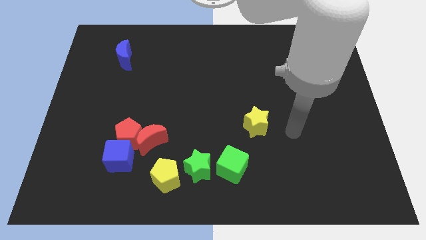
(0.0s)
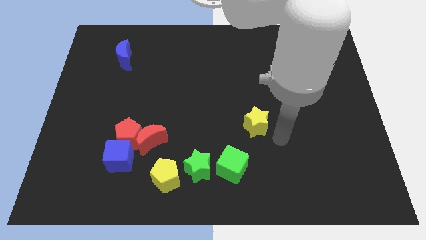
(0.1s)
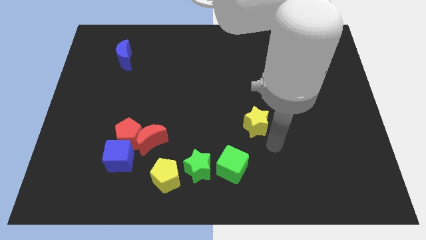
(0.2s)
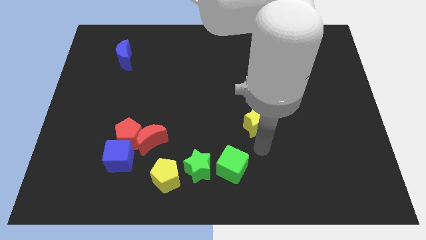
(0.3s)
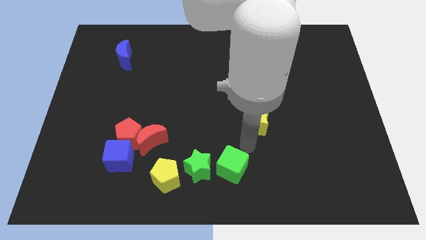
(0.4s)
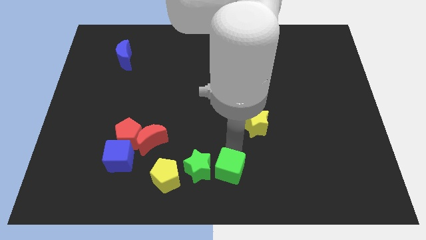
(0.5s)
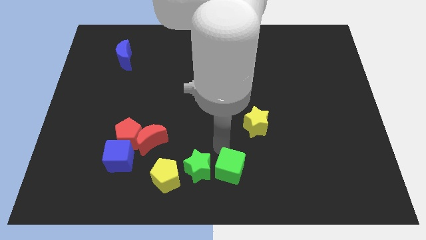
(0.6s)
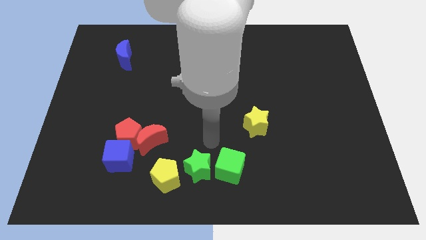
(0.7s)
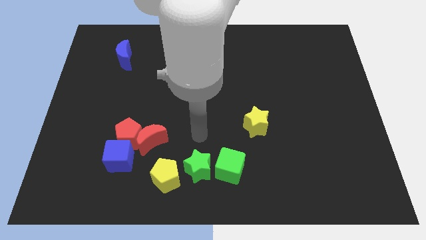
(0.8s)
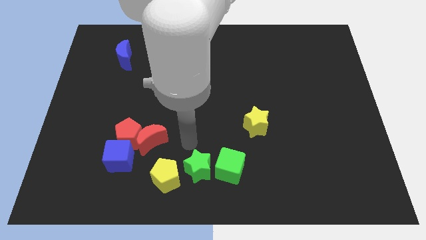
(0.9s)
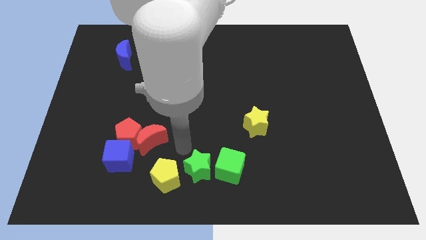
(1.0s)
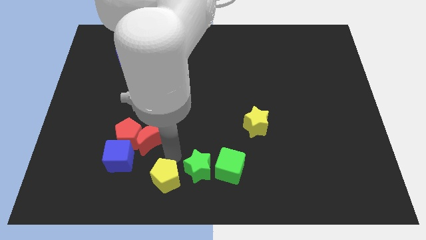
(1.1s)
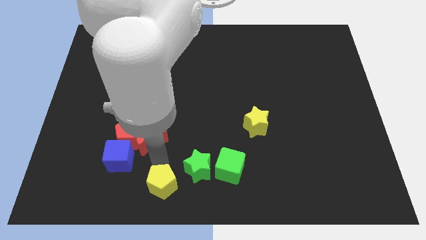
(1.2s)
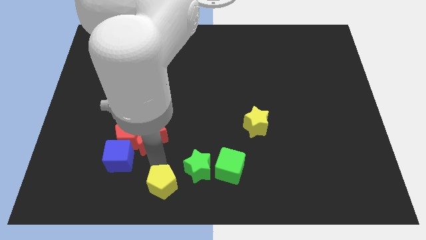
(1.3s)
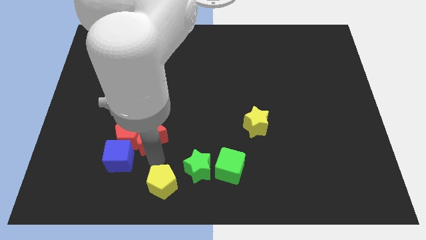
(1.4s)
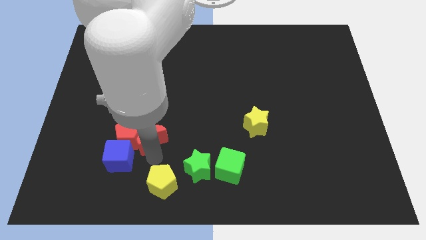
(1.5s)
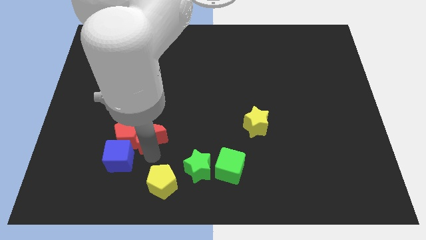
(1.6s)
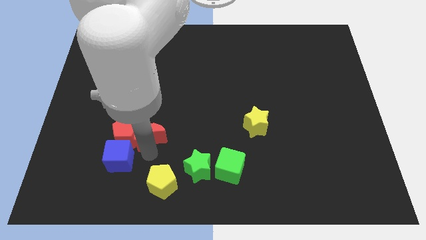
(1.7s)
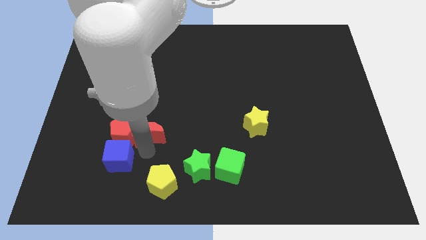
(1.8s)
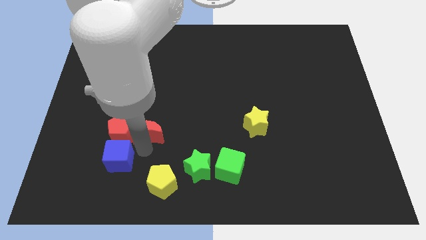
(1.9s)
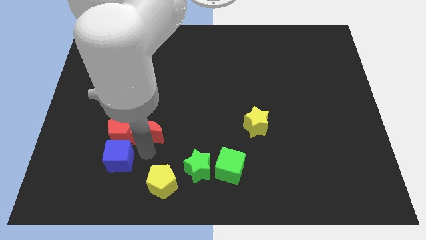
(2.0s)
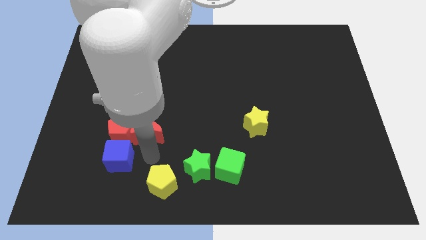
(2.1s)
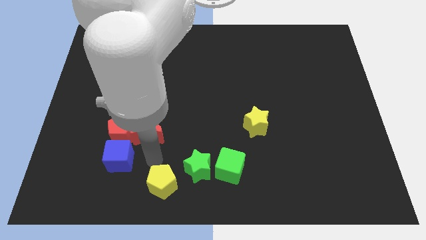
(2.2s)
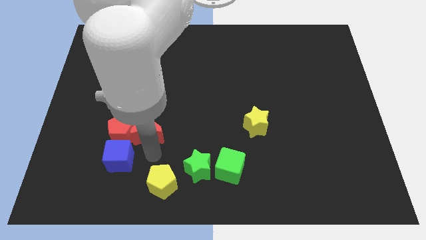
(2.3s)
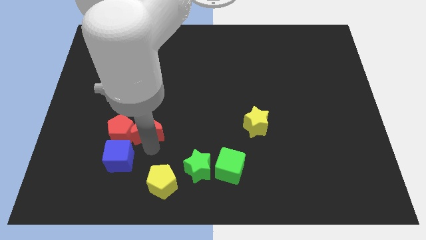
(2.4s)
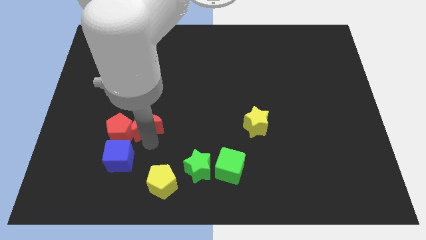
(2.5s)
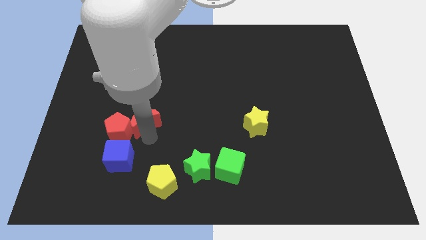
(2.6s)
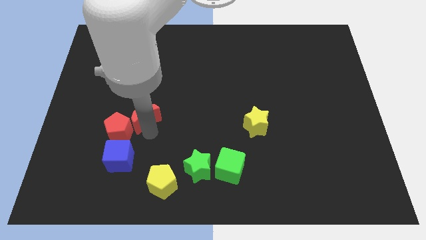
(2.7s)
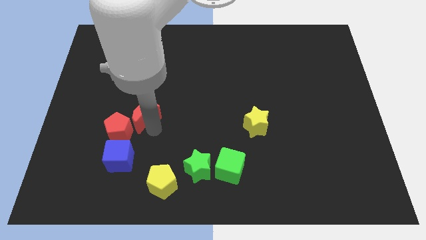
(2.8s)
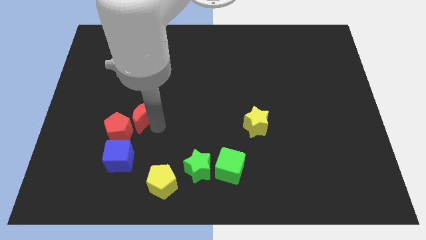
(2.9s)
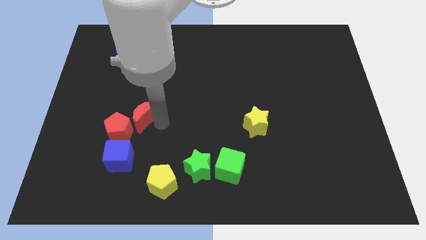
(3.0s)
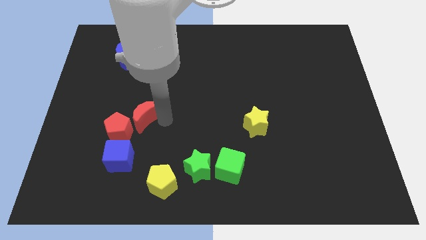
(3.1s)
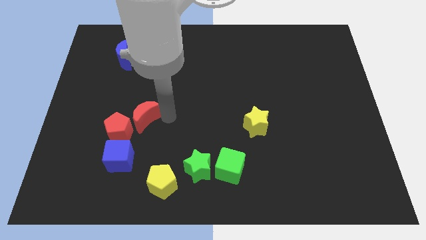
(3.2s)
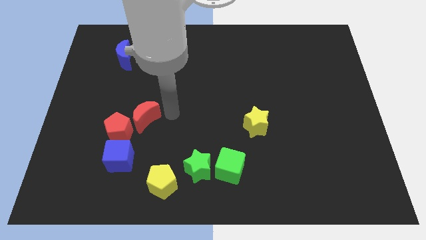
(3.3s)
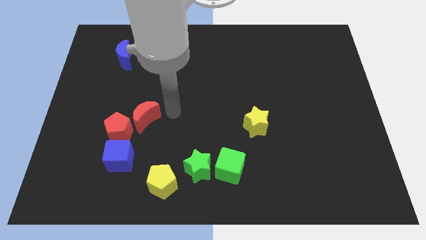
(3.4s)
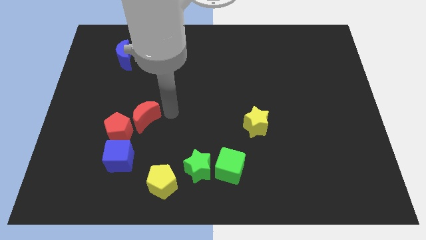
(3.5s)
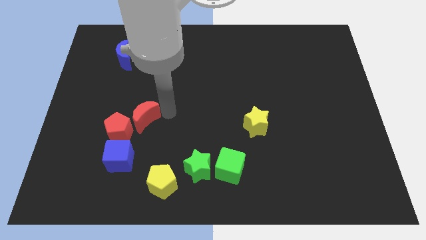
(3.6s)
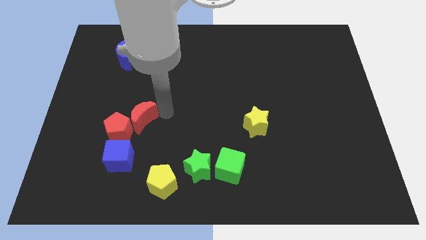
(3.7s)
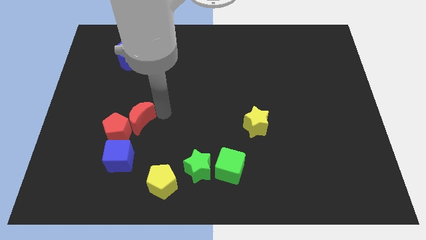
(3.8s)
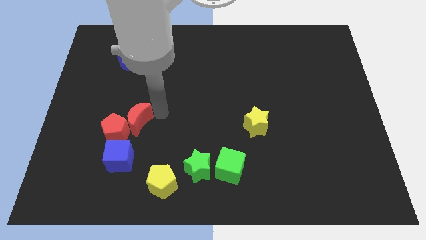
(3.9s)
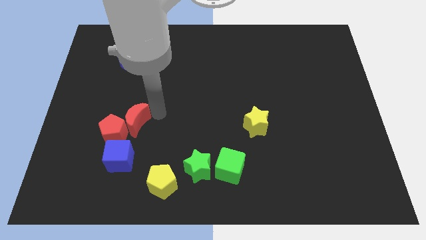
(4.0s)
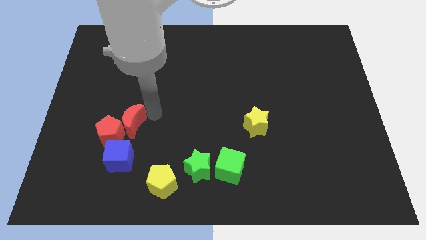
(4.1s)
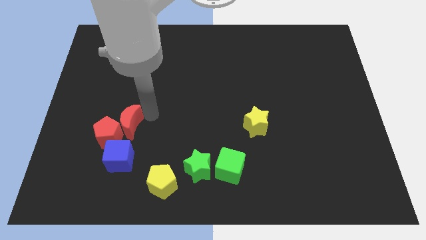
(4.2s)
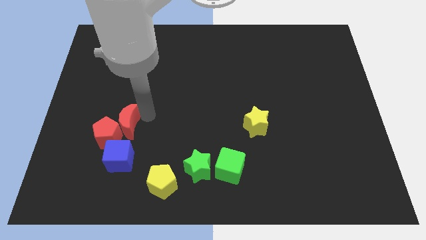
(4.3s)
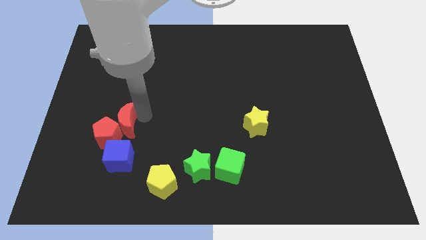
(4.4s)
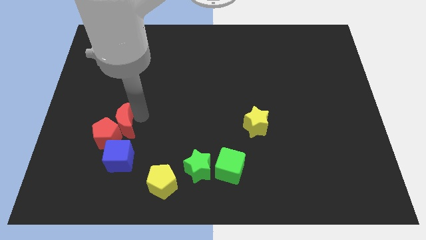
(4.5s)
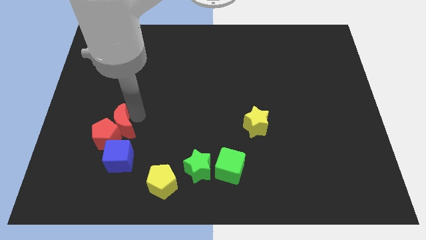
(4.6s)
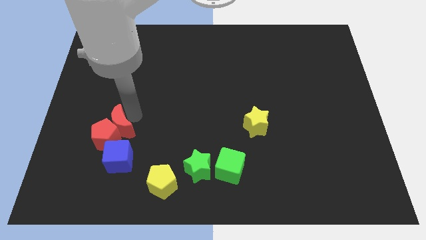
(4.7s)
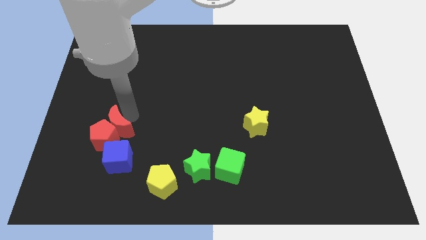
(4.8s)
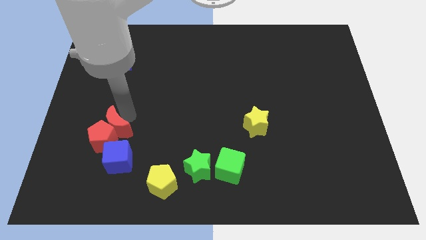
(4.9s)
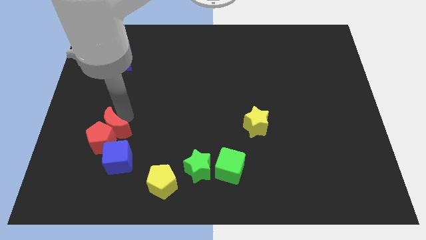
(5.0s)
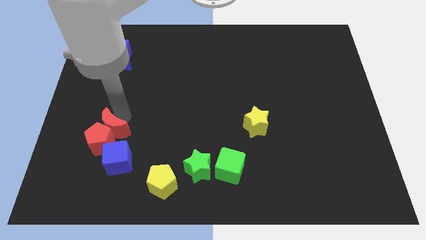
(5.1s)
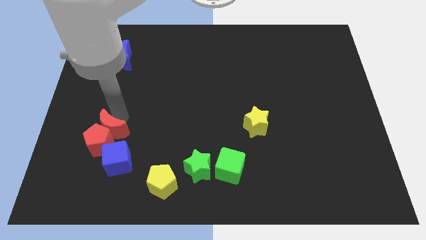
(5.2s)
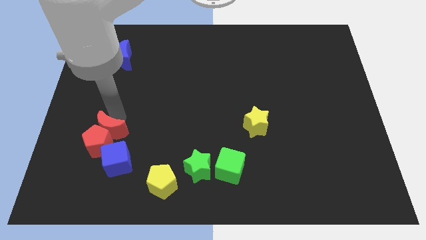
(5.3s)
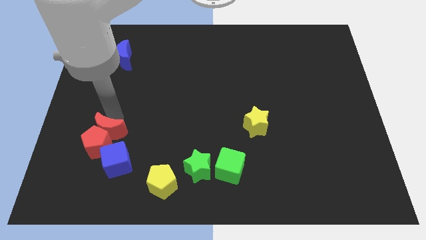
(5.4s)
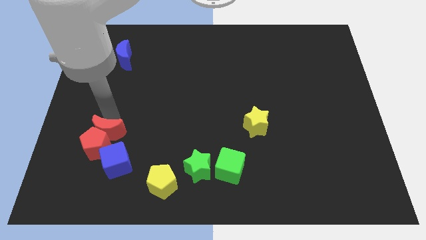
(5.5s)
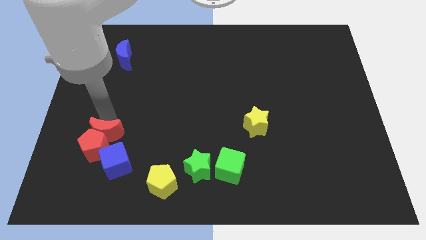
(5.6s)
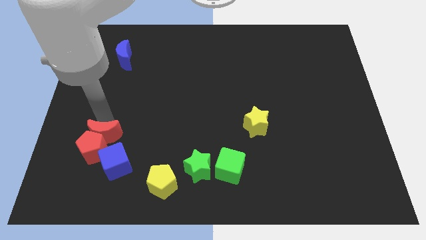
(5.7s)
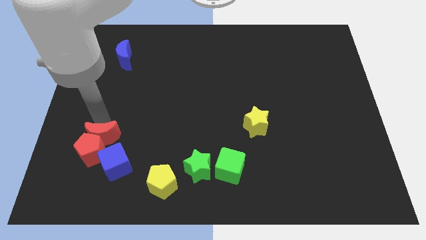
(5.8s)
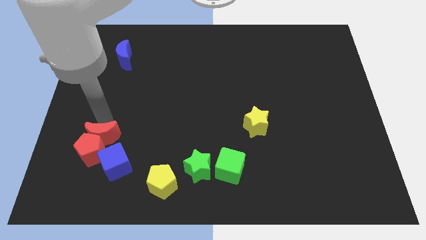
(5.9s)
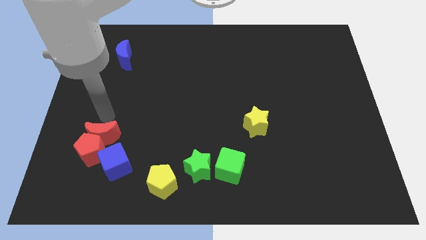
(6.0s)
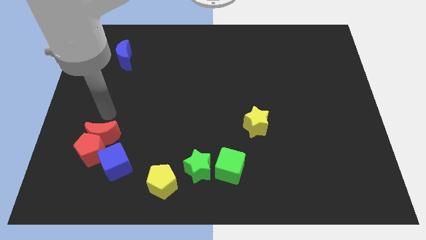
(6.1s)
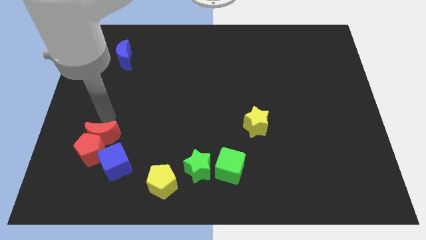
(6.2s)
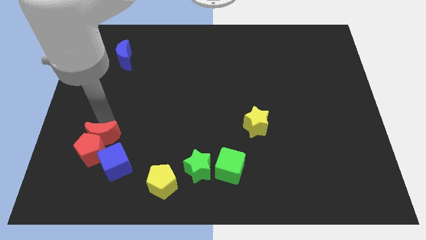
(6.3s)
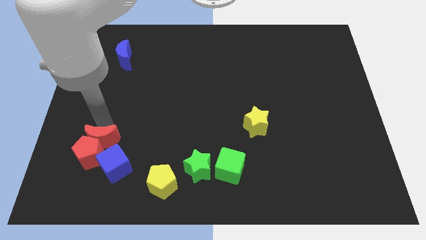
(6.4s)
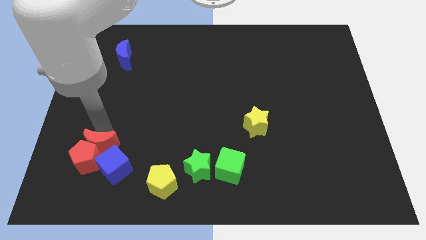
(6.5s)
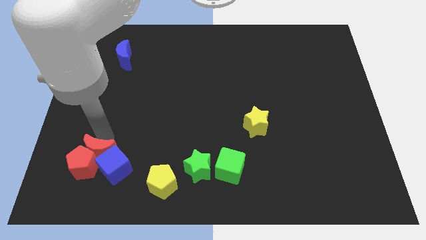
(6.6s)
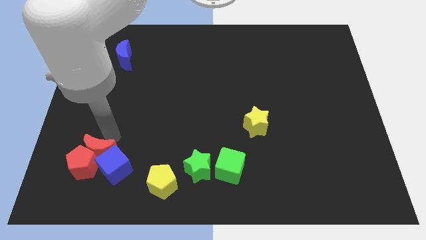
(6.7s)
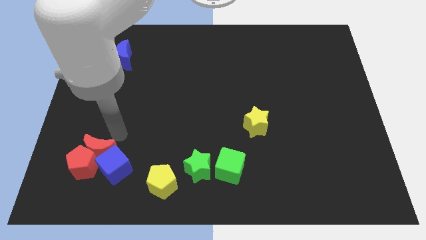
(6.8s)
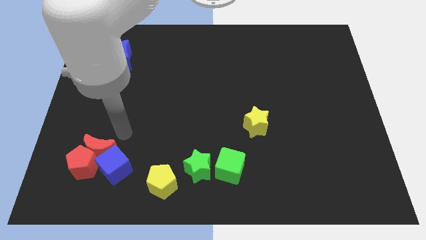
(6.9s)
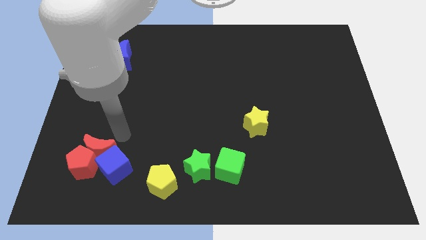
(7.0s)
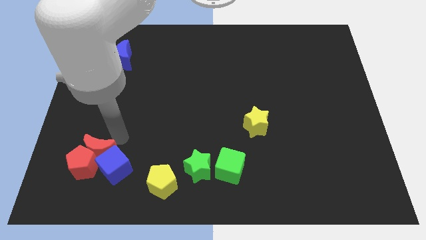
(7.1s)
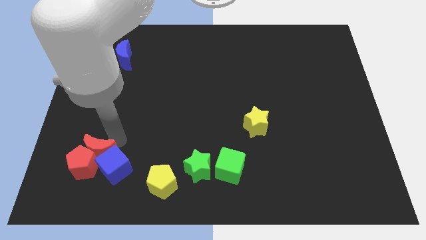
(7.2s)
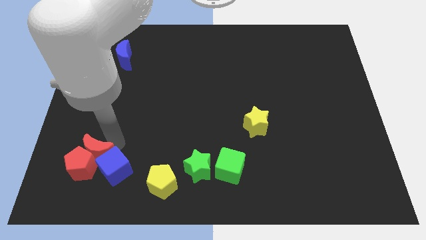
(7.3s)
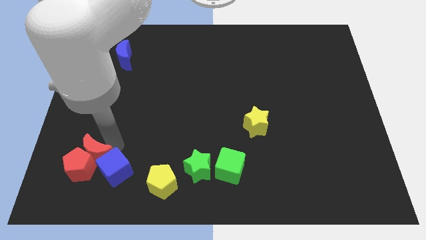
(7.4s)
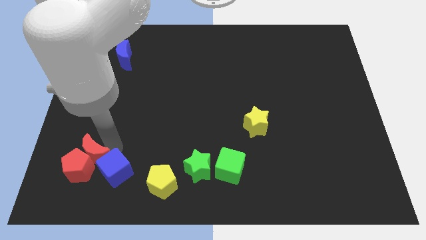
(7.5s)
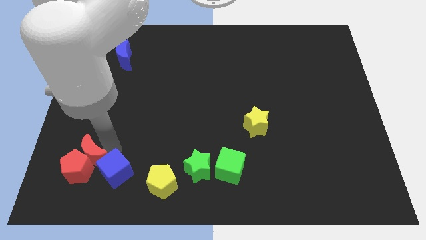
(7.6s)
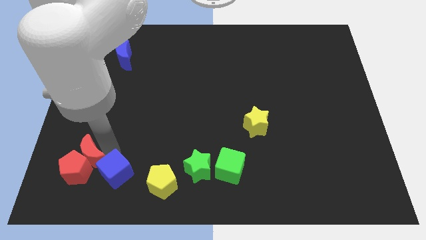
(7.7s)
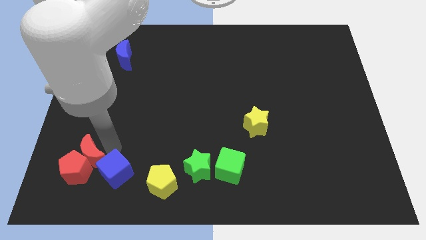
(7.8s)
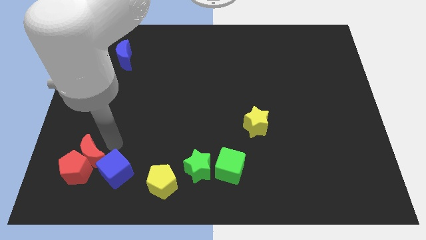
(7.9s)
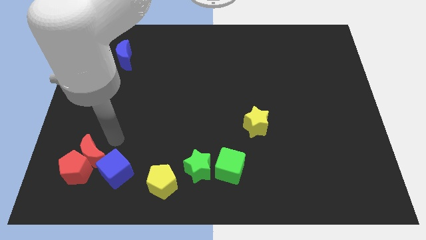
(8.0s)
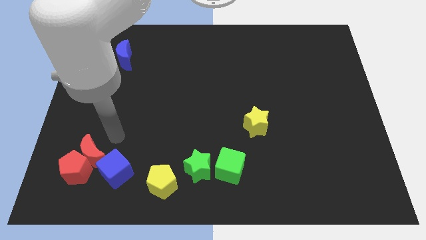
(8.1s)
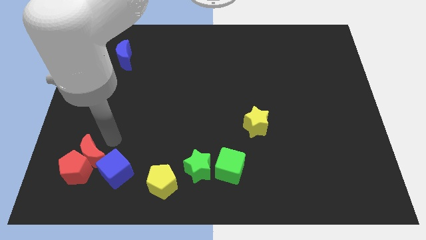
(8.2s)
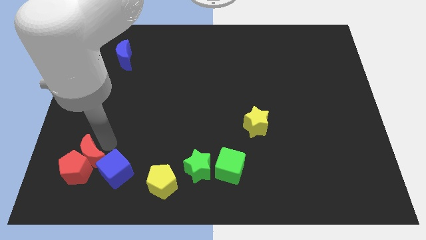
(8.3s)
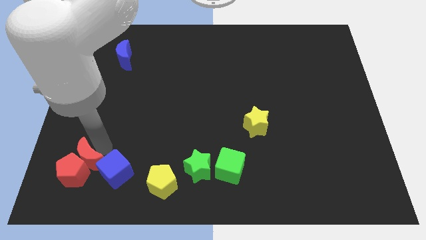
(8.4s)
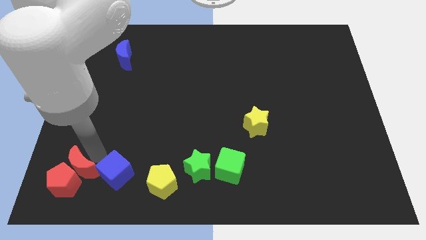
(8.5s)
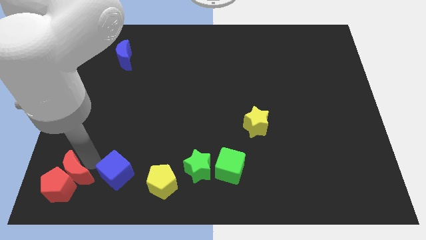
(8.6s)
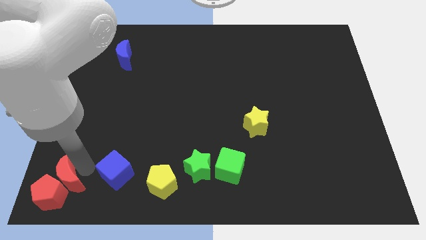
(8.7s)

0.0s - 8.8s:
slide the red moon to the lower left corner
